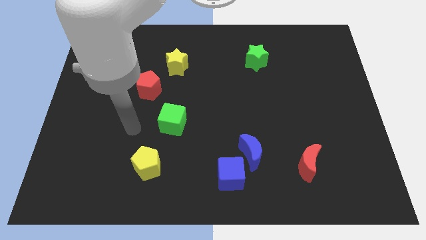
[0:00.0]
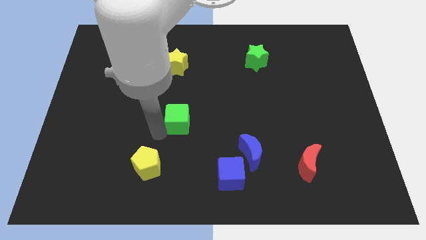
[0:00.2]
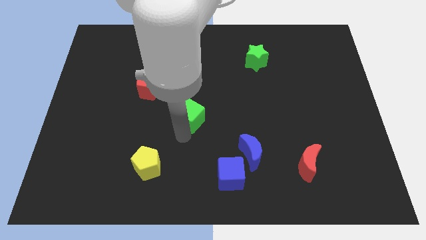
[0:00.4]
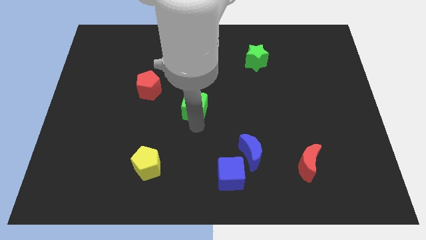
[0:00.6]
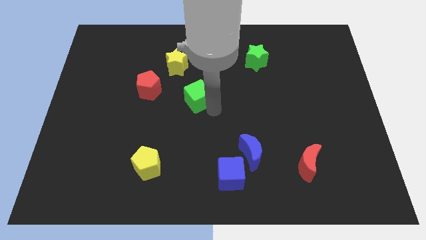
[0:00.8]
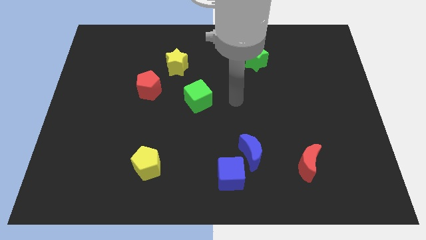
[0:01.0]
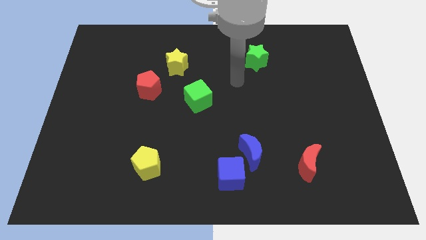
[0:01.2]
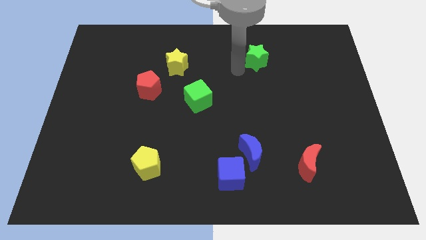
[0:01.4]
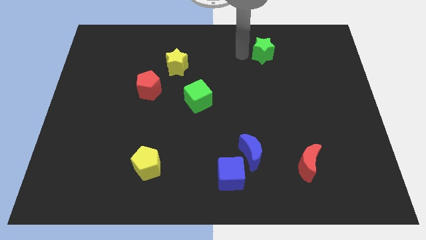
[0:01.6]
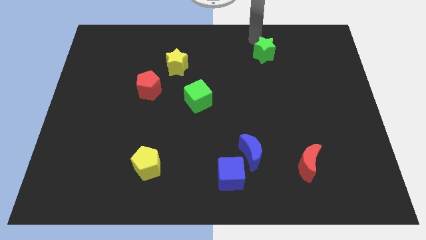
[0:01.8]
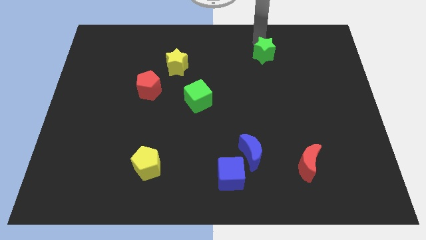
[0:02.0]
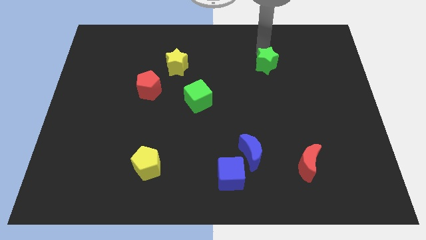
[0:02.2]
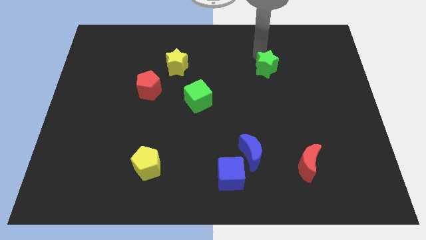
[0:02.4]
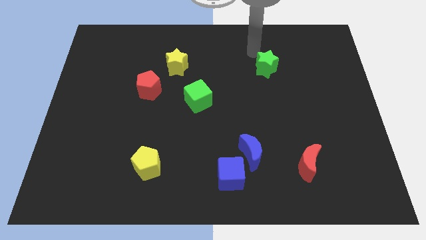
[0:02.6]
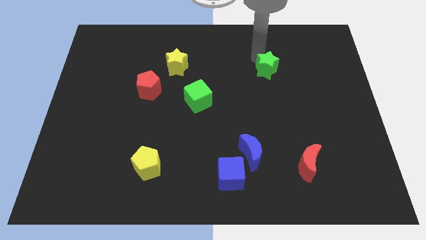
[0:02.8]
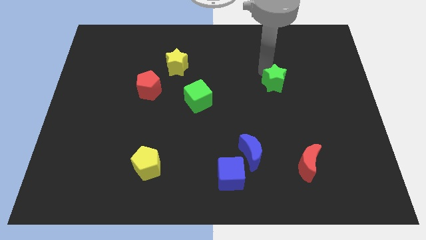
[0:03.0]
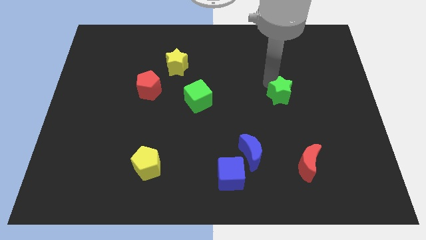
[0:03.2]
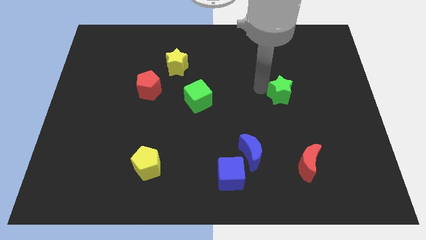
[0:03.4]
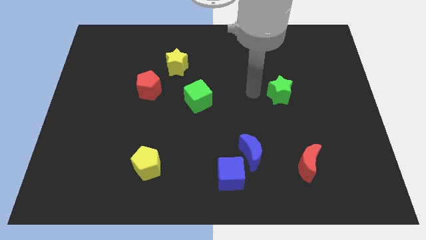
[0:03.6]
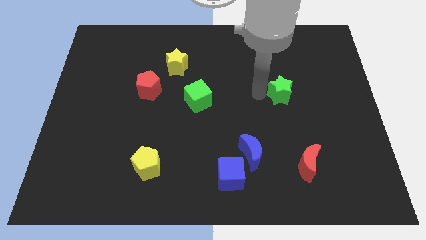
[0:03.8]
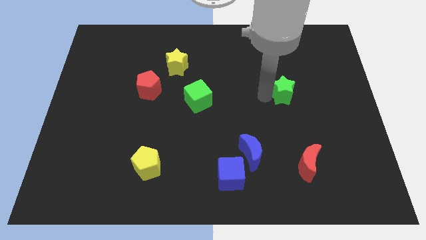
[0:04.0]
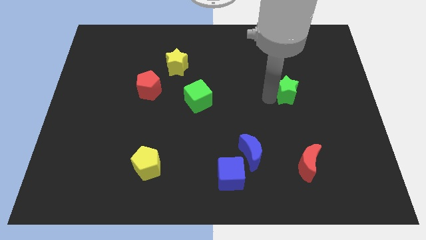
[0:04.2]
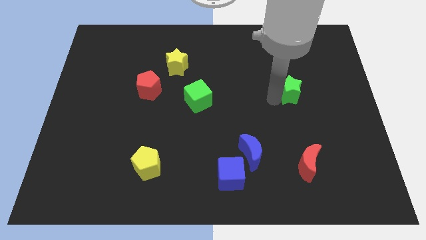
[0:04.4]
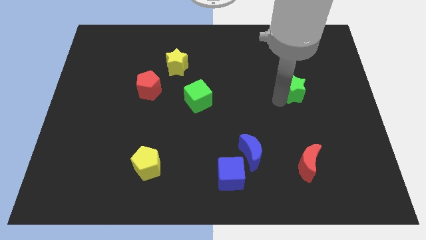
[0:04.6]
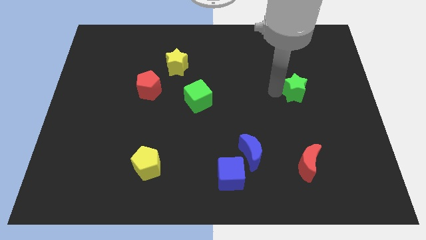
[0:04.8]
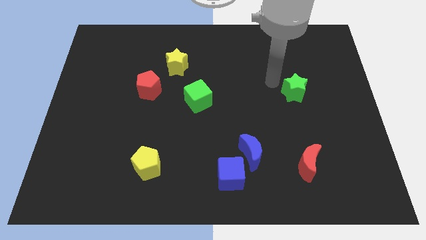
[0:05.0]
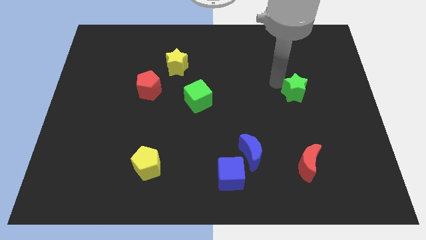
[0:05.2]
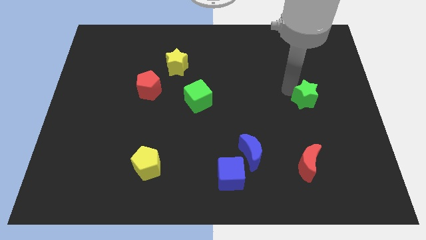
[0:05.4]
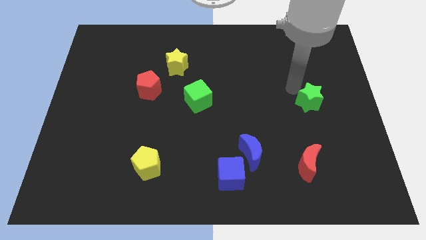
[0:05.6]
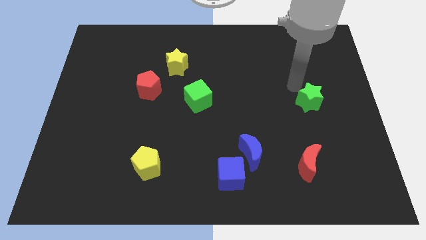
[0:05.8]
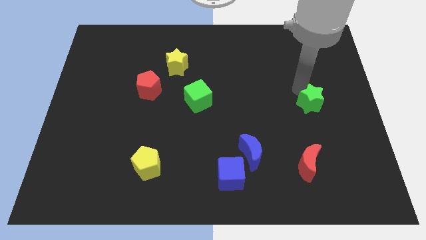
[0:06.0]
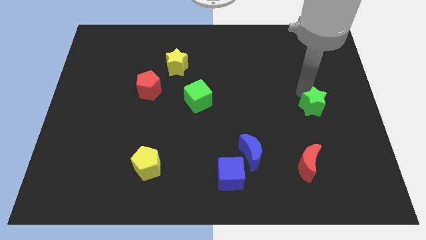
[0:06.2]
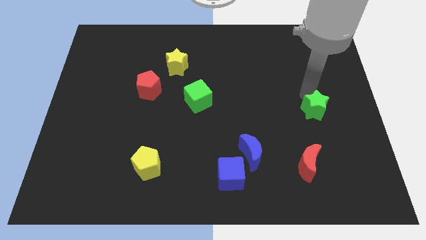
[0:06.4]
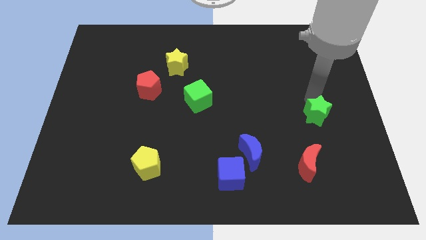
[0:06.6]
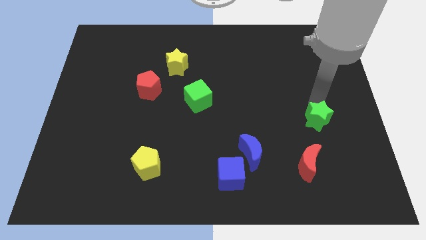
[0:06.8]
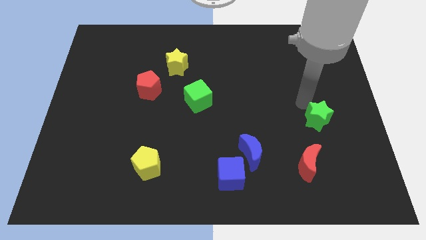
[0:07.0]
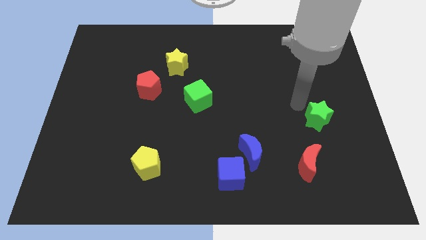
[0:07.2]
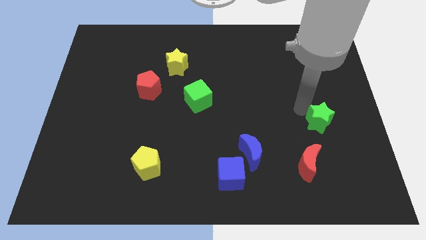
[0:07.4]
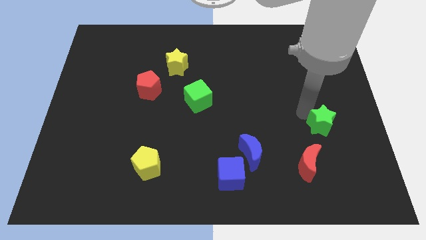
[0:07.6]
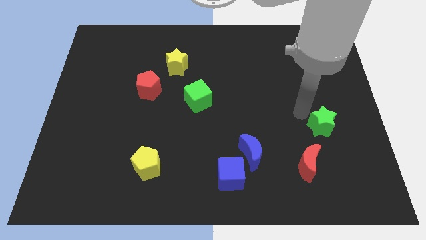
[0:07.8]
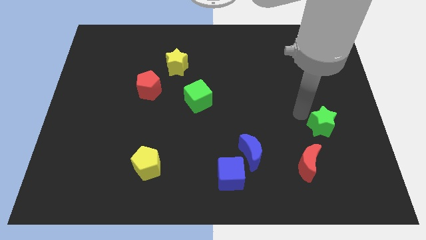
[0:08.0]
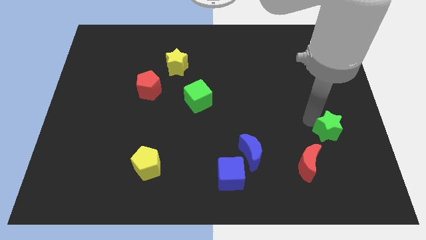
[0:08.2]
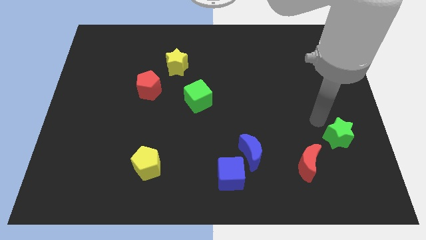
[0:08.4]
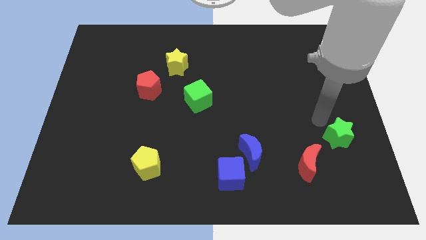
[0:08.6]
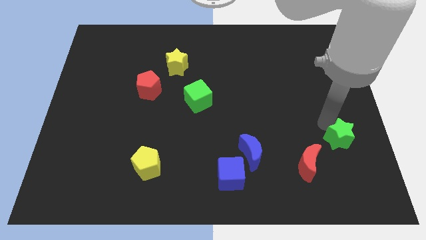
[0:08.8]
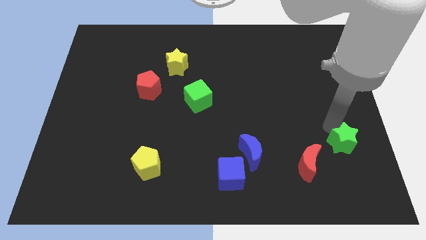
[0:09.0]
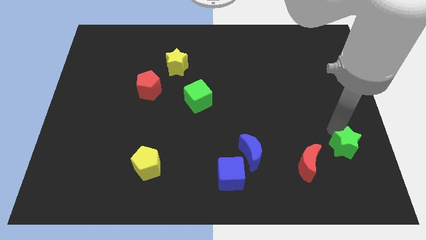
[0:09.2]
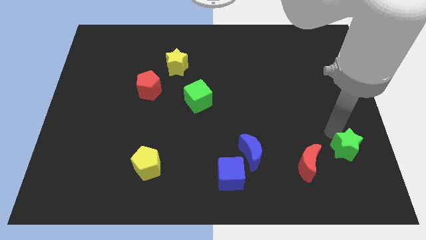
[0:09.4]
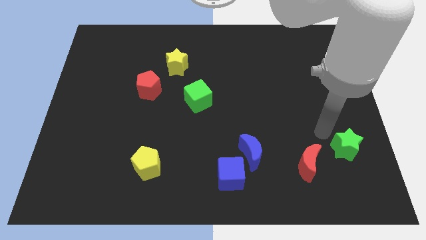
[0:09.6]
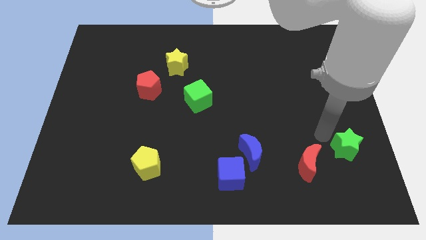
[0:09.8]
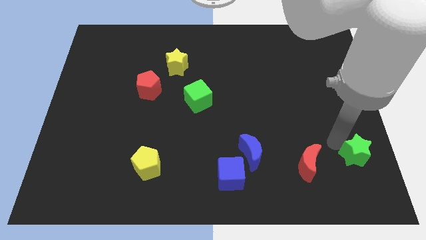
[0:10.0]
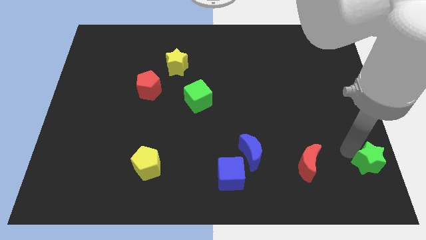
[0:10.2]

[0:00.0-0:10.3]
push the green star to the lower right corner
